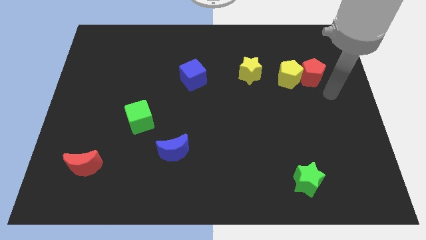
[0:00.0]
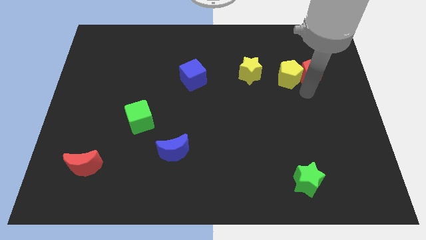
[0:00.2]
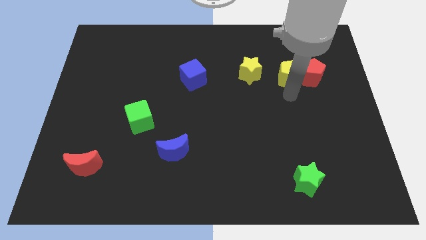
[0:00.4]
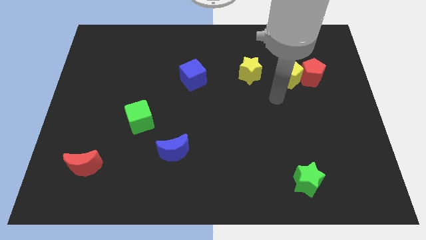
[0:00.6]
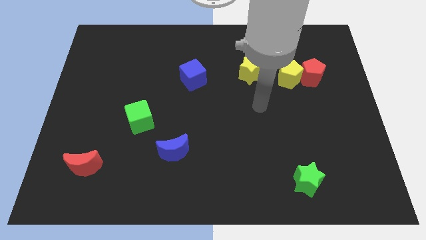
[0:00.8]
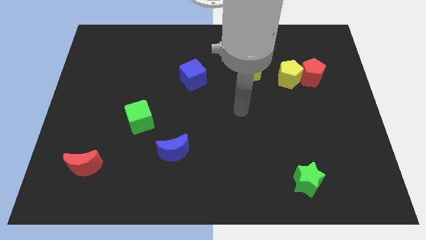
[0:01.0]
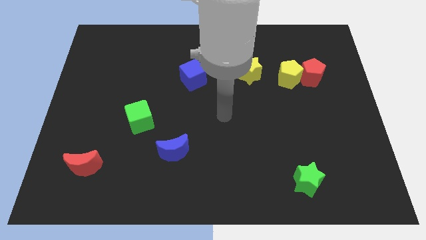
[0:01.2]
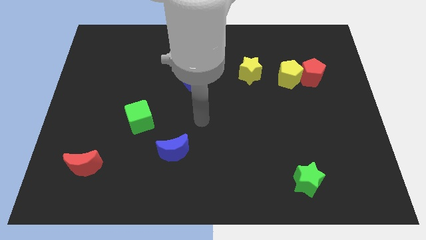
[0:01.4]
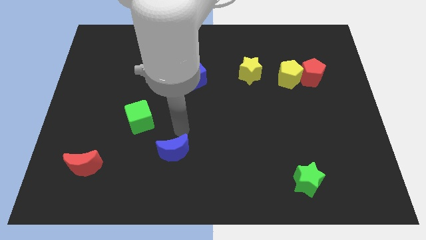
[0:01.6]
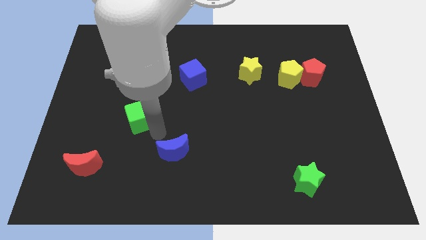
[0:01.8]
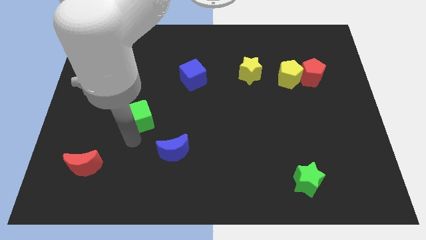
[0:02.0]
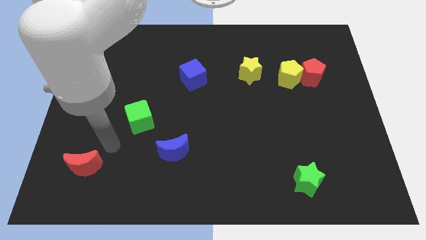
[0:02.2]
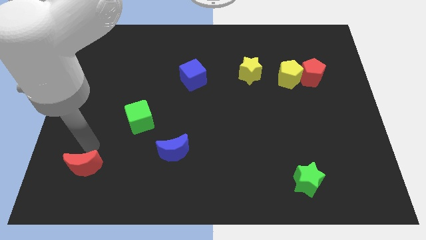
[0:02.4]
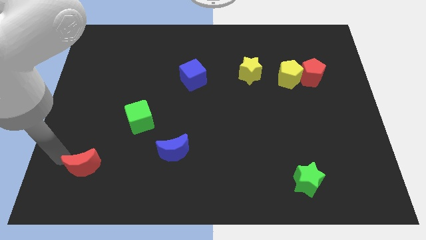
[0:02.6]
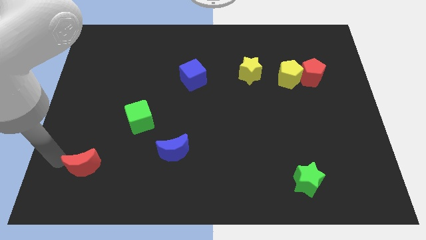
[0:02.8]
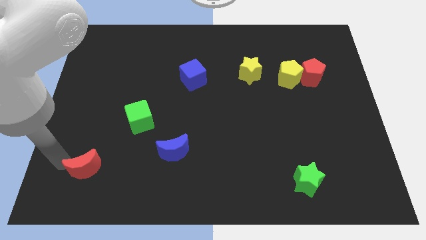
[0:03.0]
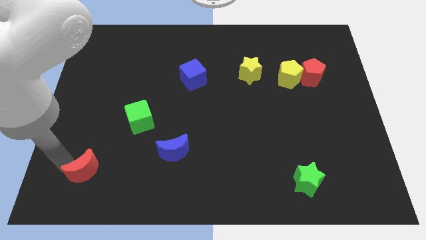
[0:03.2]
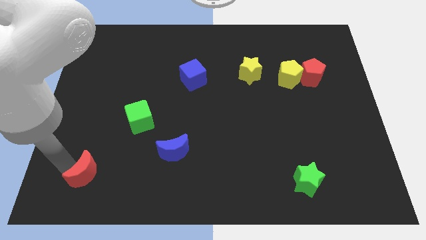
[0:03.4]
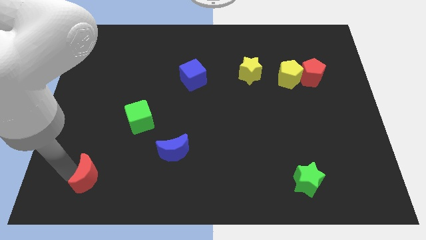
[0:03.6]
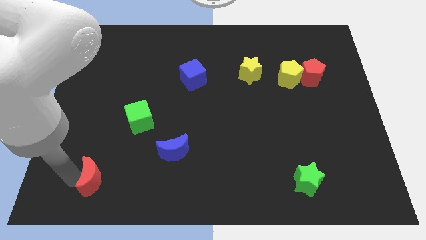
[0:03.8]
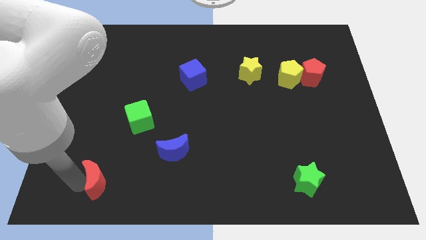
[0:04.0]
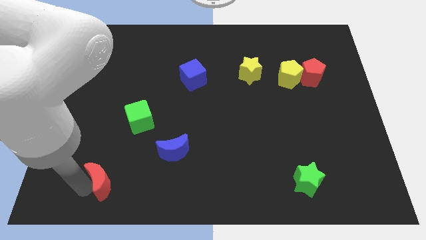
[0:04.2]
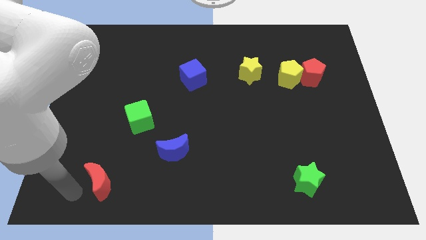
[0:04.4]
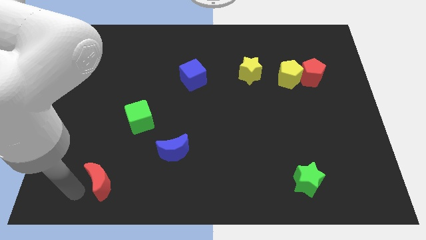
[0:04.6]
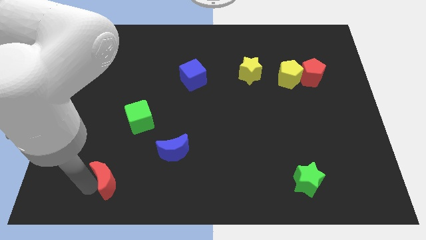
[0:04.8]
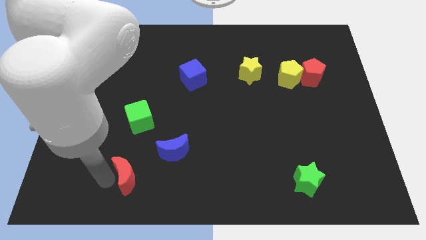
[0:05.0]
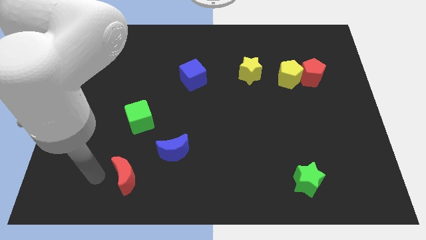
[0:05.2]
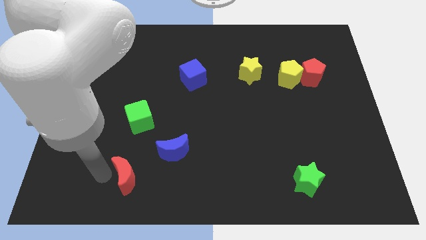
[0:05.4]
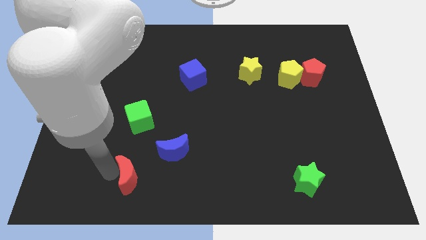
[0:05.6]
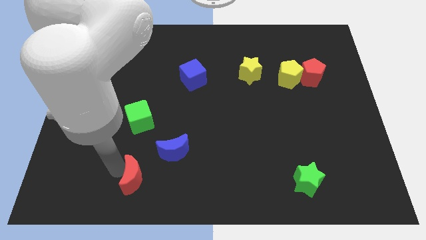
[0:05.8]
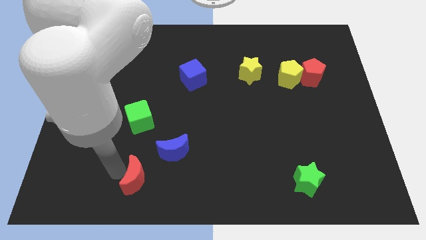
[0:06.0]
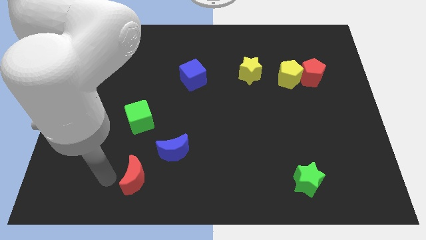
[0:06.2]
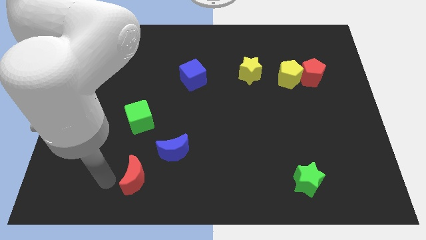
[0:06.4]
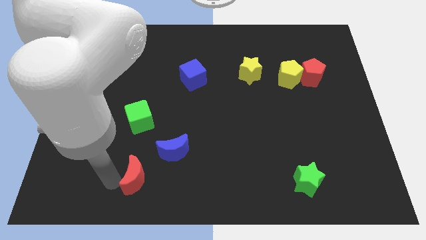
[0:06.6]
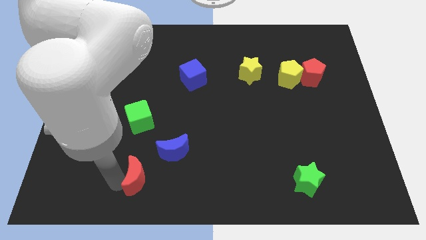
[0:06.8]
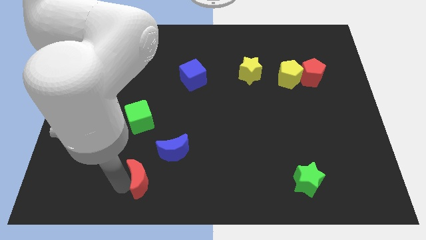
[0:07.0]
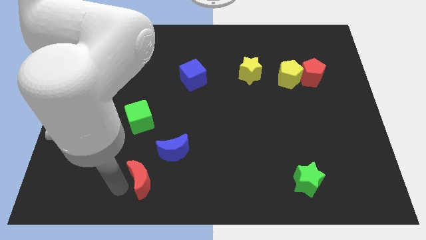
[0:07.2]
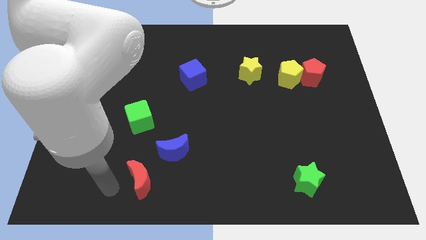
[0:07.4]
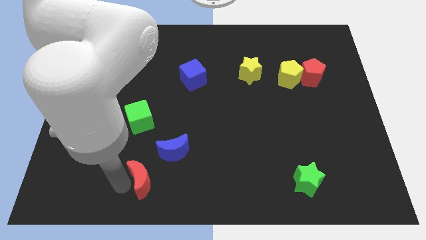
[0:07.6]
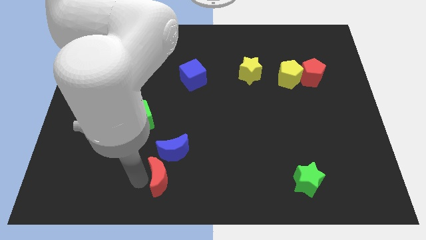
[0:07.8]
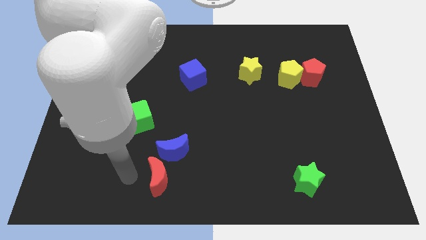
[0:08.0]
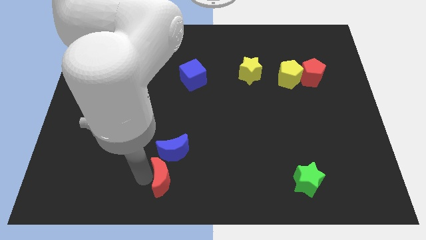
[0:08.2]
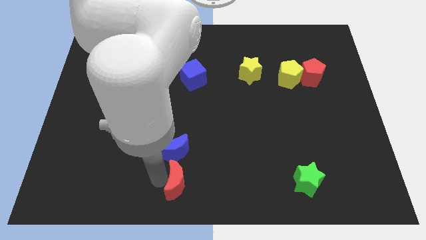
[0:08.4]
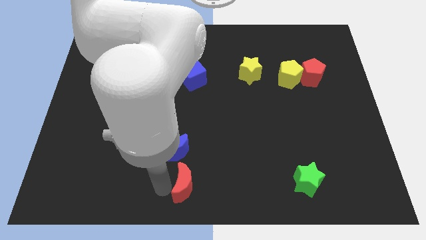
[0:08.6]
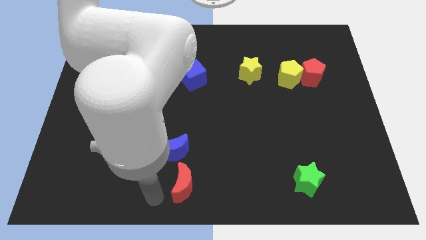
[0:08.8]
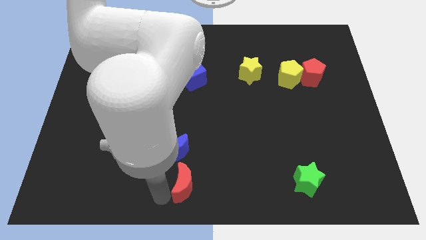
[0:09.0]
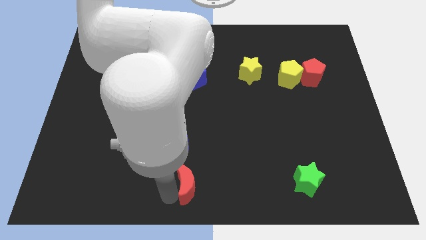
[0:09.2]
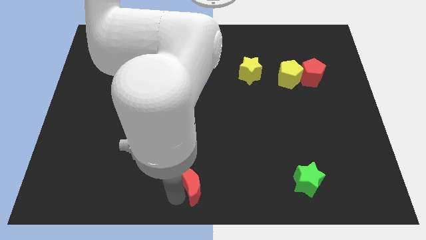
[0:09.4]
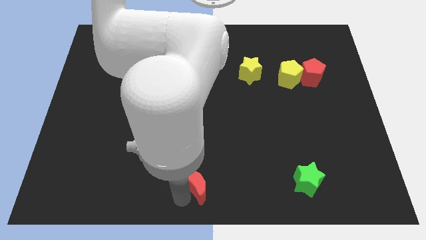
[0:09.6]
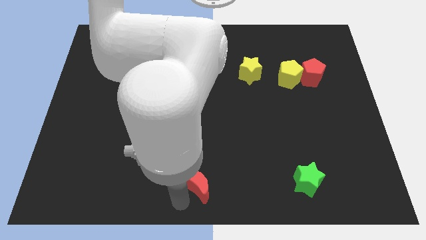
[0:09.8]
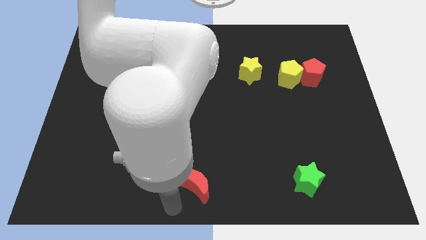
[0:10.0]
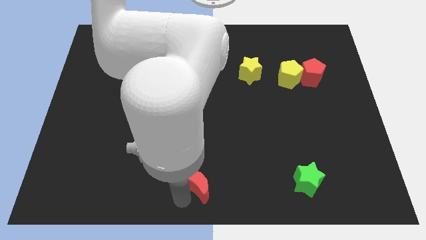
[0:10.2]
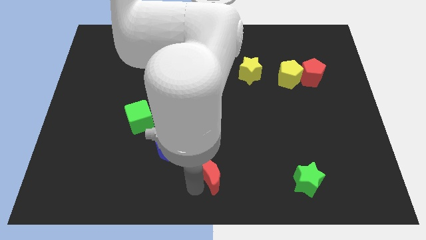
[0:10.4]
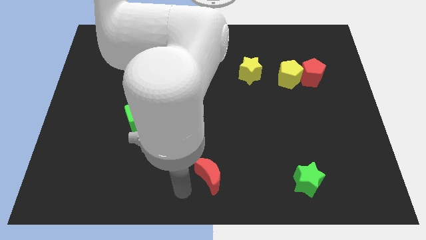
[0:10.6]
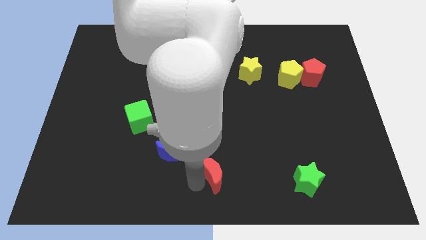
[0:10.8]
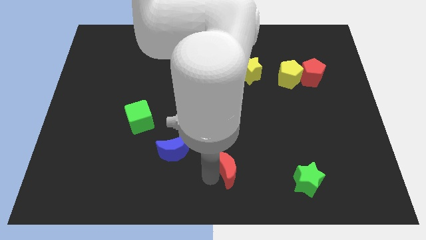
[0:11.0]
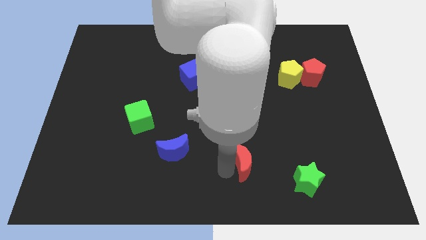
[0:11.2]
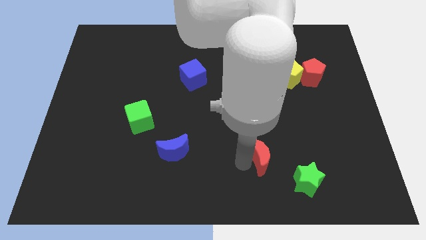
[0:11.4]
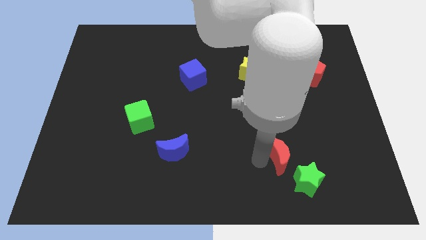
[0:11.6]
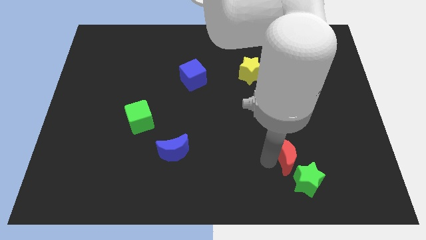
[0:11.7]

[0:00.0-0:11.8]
push the red moon to the top of the green star

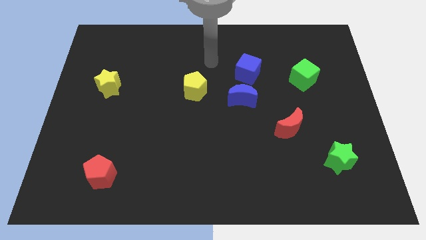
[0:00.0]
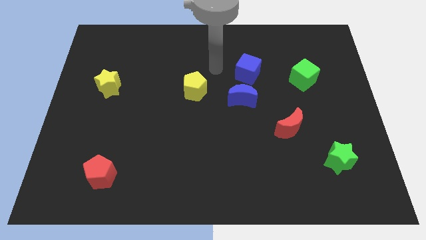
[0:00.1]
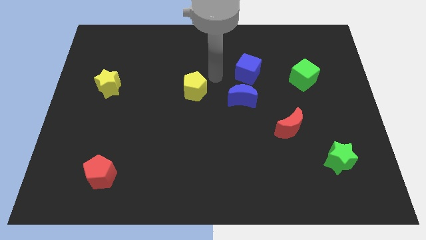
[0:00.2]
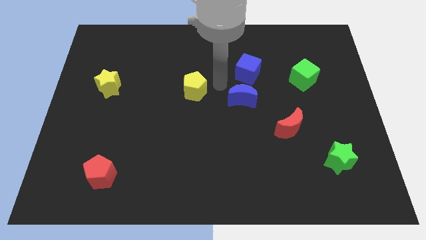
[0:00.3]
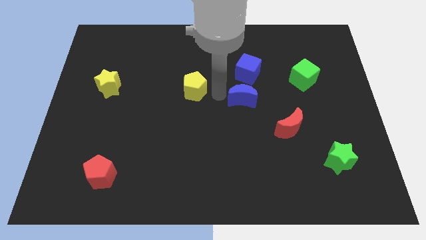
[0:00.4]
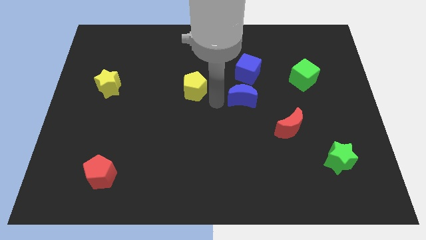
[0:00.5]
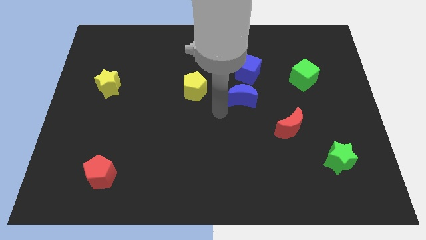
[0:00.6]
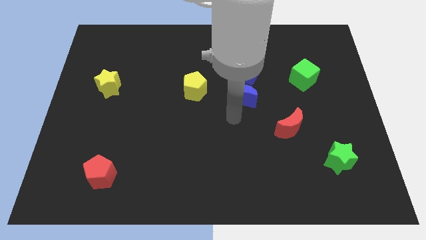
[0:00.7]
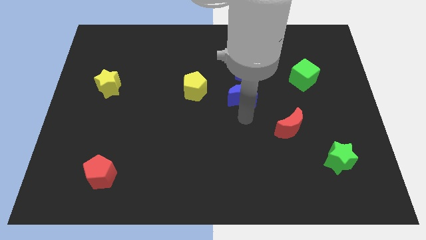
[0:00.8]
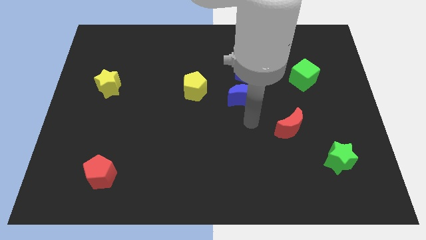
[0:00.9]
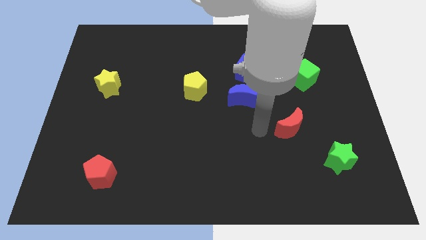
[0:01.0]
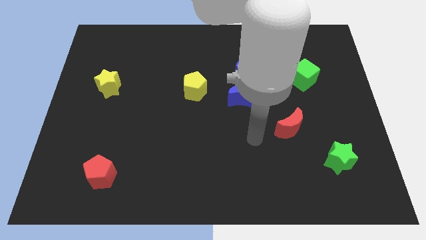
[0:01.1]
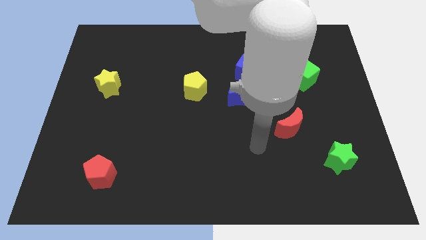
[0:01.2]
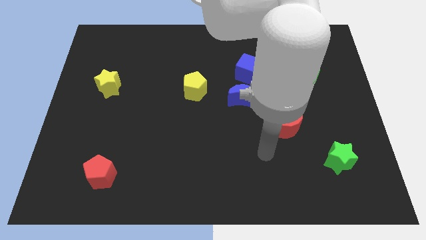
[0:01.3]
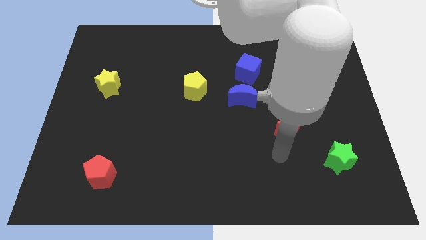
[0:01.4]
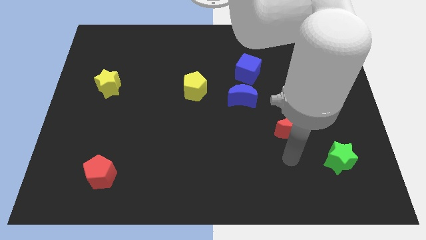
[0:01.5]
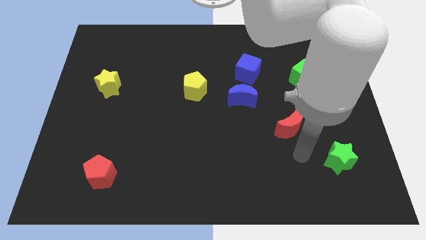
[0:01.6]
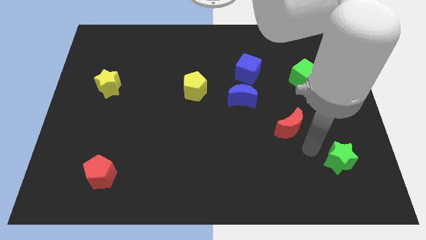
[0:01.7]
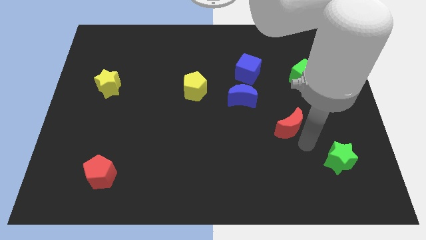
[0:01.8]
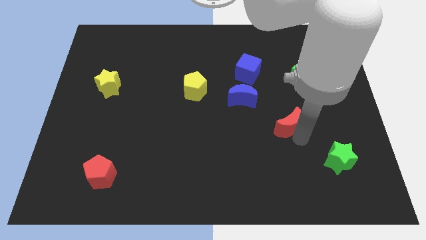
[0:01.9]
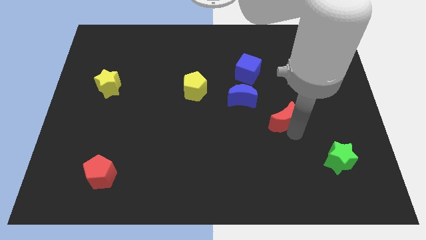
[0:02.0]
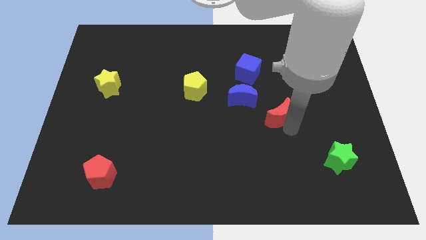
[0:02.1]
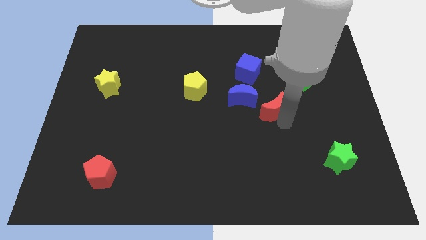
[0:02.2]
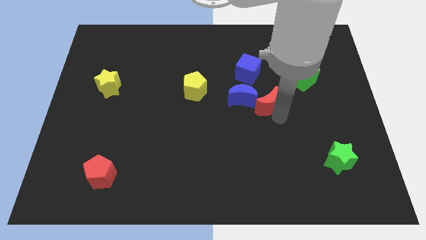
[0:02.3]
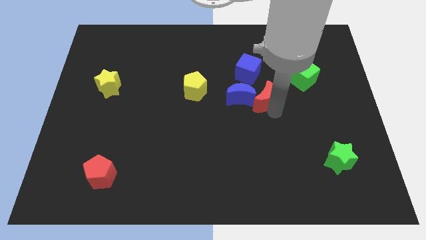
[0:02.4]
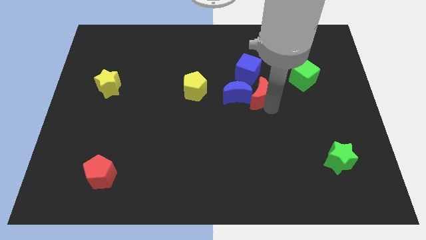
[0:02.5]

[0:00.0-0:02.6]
move the red moon just right of the yellow pentagon
